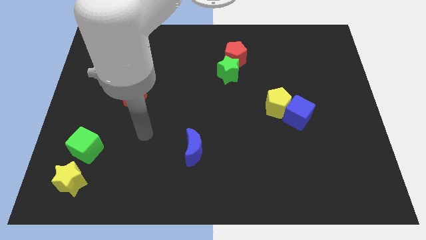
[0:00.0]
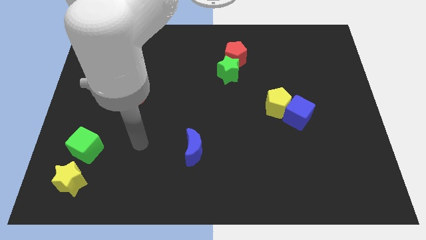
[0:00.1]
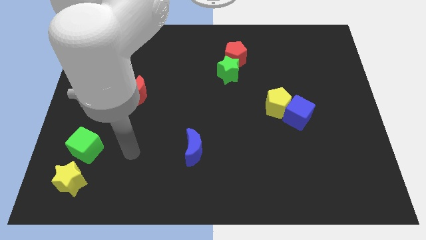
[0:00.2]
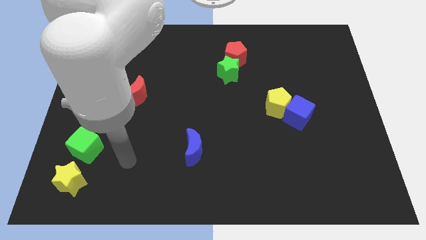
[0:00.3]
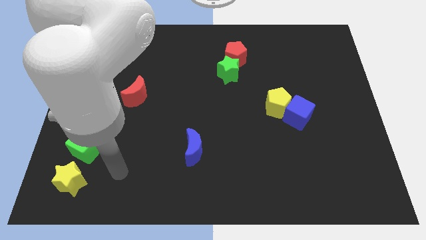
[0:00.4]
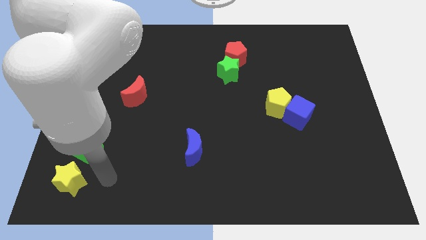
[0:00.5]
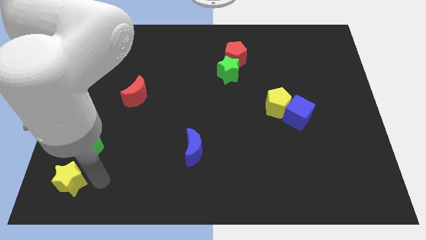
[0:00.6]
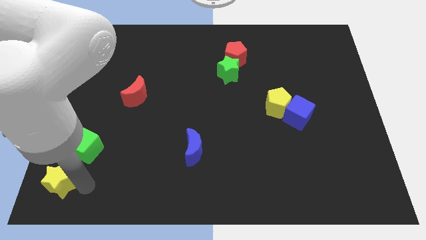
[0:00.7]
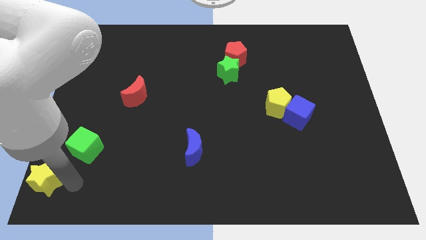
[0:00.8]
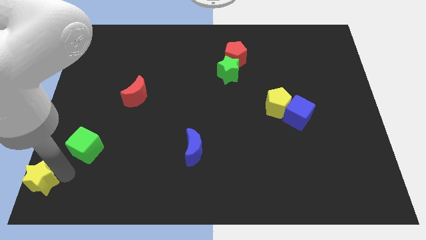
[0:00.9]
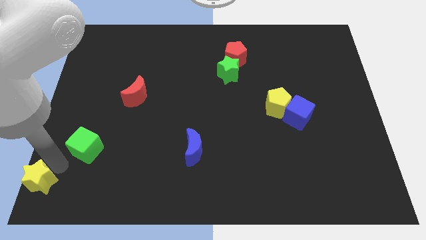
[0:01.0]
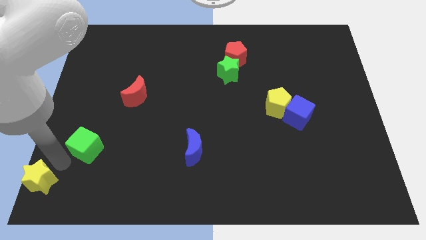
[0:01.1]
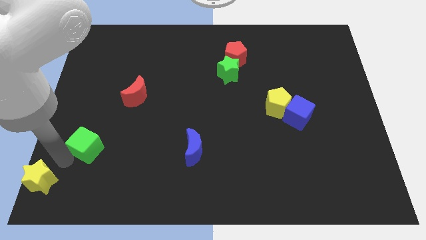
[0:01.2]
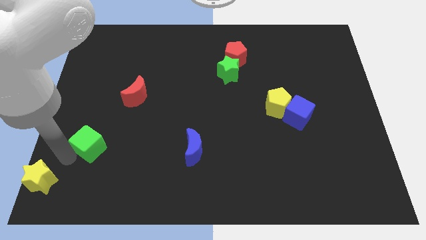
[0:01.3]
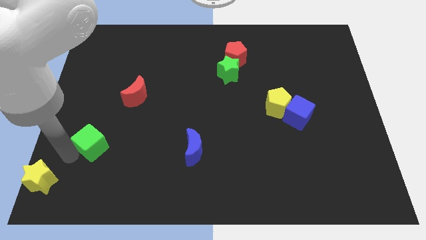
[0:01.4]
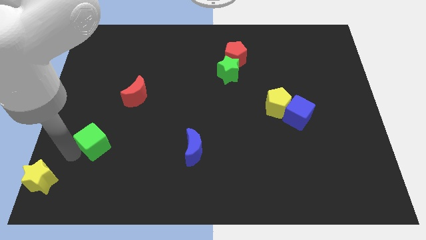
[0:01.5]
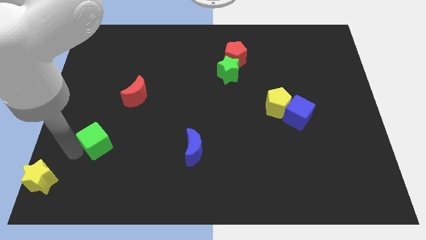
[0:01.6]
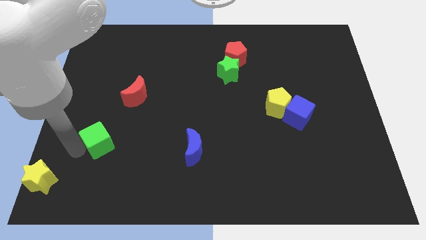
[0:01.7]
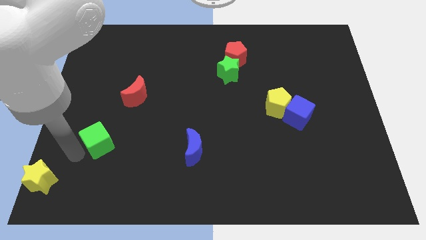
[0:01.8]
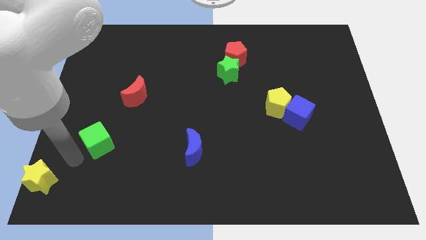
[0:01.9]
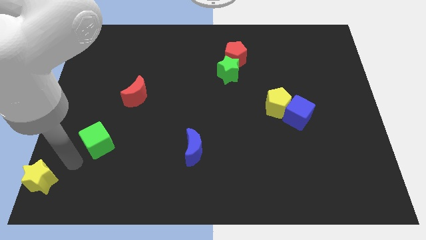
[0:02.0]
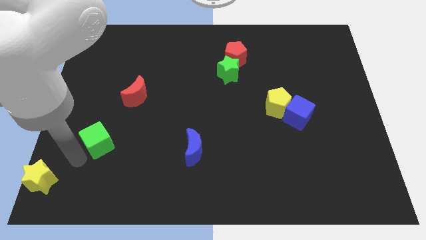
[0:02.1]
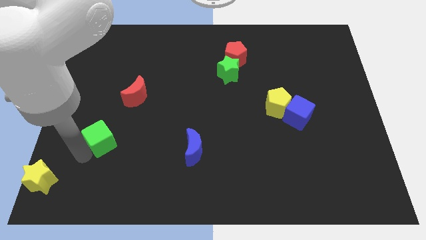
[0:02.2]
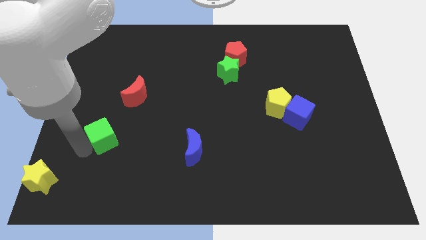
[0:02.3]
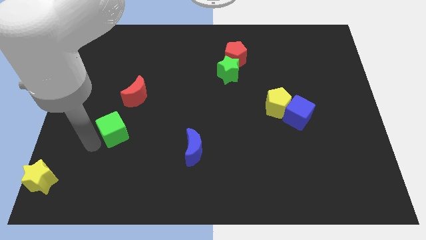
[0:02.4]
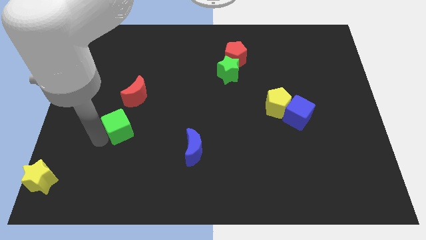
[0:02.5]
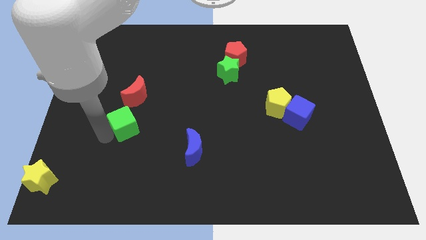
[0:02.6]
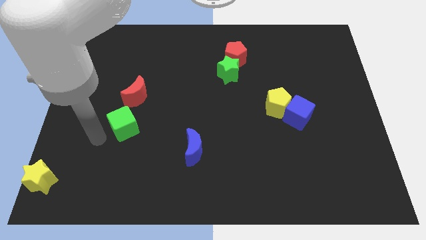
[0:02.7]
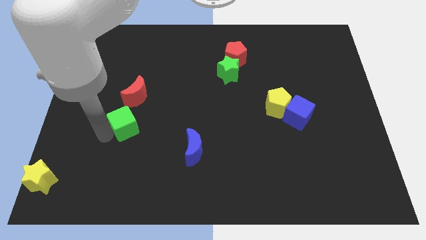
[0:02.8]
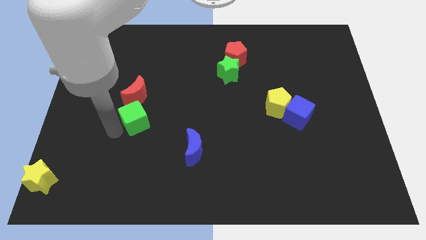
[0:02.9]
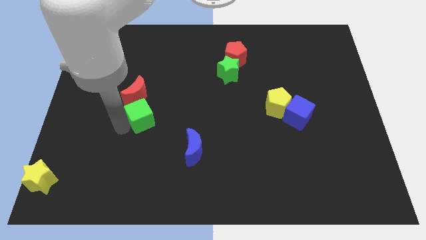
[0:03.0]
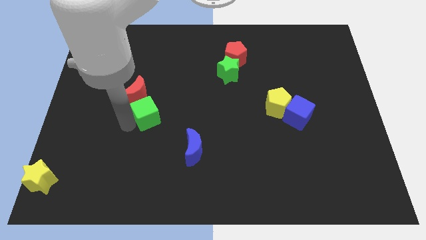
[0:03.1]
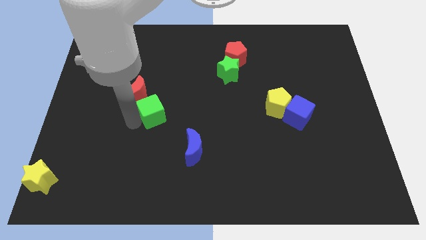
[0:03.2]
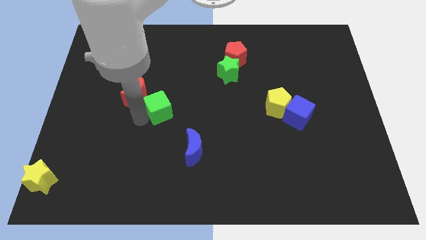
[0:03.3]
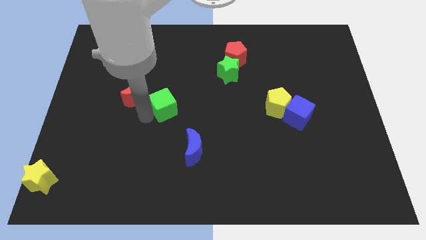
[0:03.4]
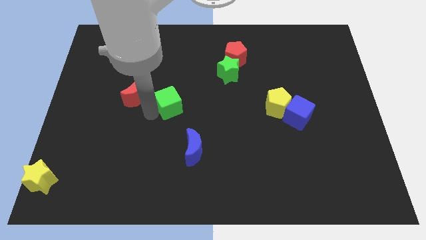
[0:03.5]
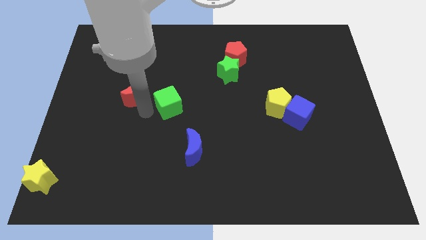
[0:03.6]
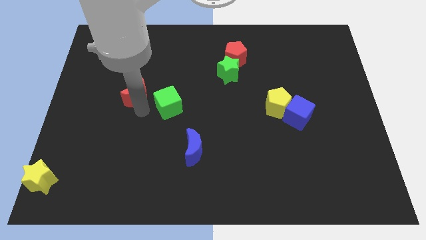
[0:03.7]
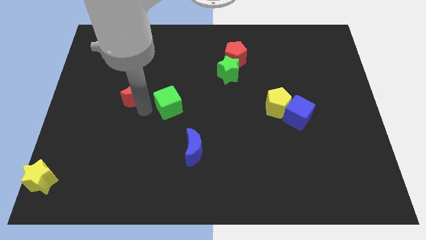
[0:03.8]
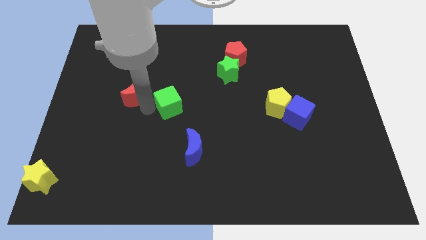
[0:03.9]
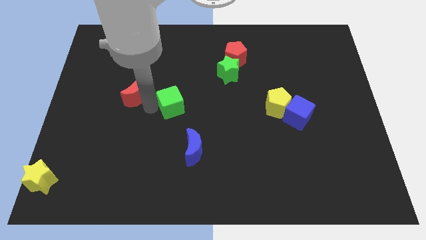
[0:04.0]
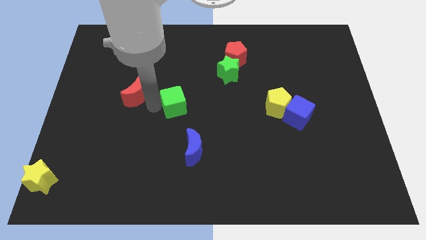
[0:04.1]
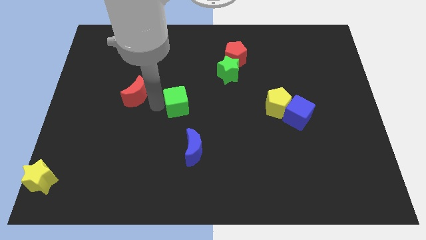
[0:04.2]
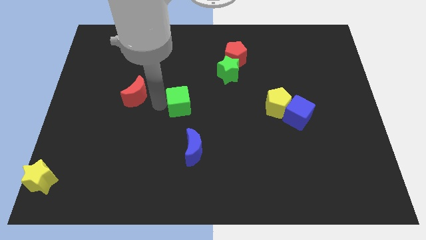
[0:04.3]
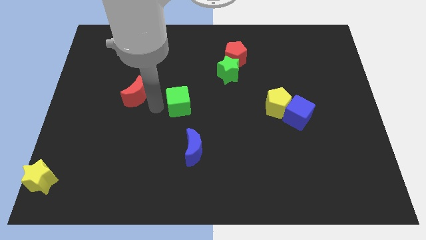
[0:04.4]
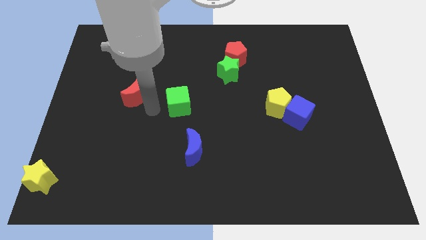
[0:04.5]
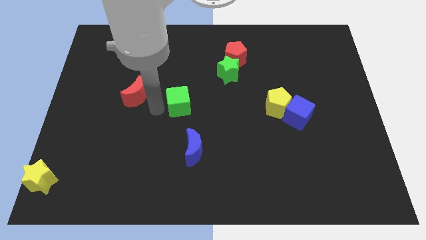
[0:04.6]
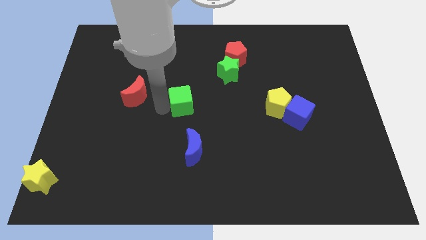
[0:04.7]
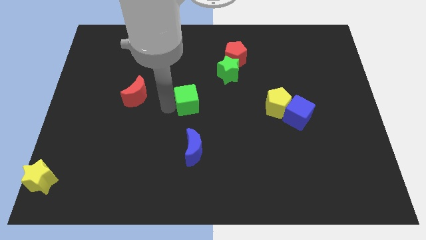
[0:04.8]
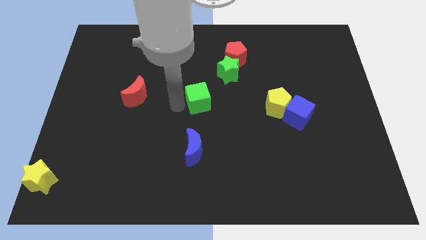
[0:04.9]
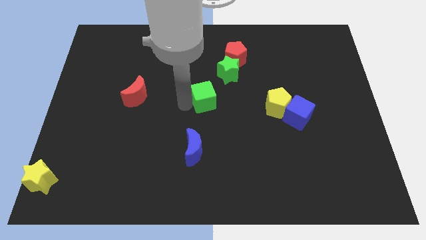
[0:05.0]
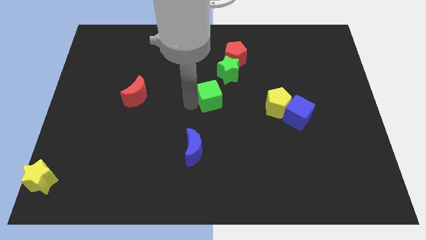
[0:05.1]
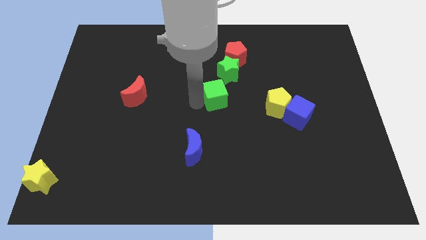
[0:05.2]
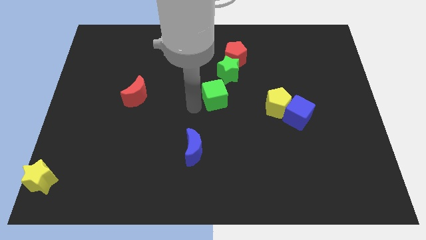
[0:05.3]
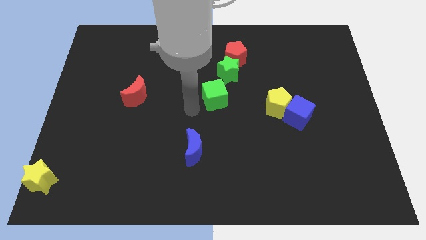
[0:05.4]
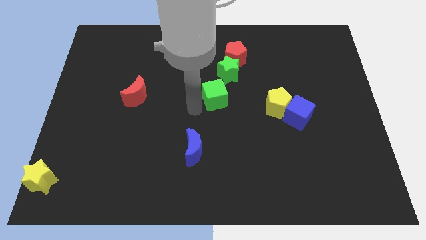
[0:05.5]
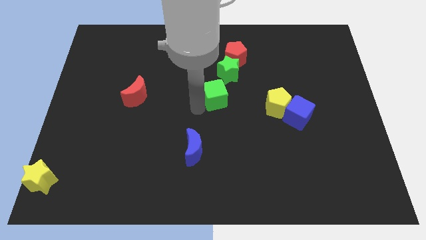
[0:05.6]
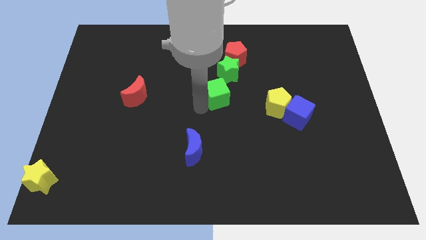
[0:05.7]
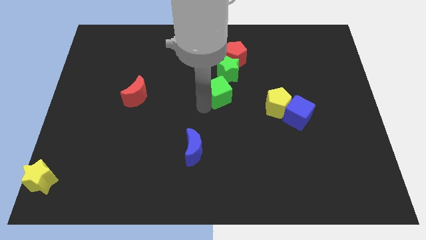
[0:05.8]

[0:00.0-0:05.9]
slide the green cube to the bottom of the red pentagon

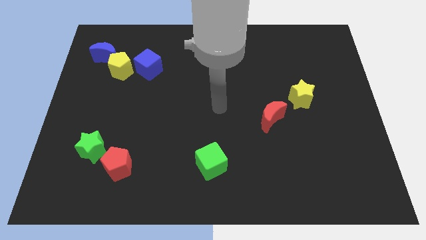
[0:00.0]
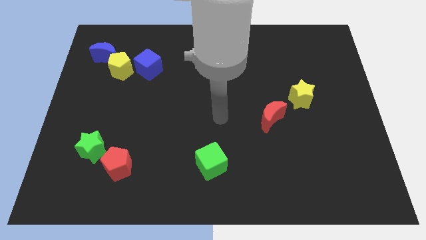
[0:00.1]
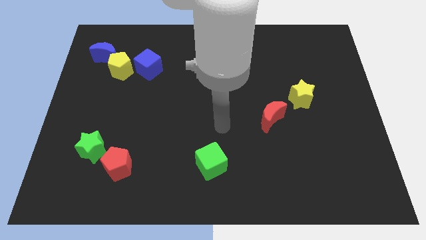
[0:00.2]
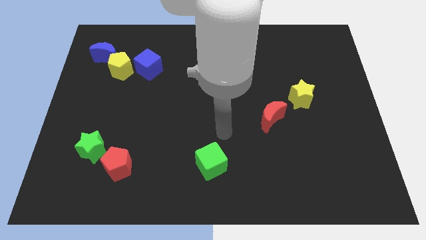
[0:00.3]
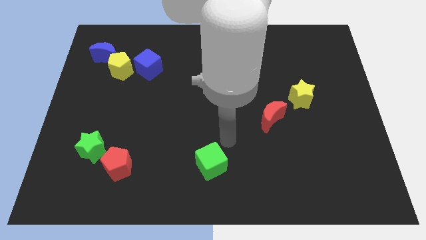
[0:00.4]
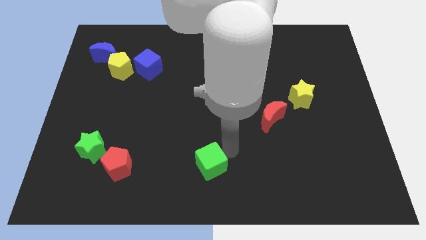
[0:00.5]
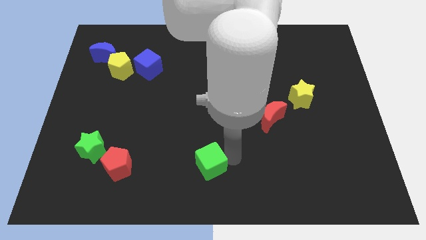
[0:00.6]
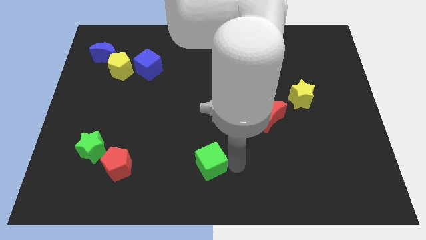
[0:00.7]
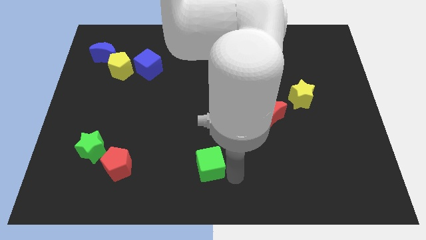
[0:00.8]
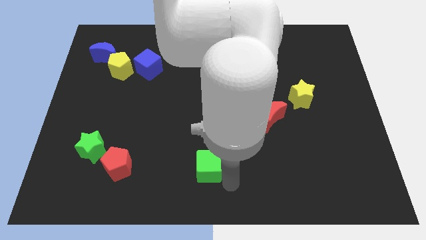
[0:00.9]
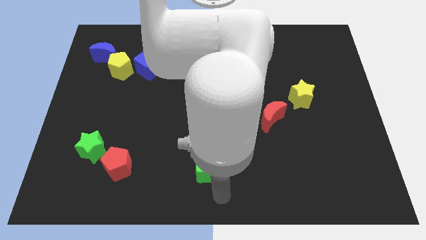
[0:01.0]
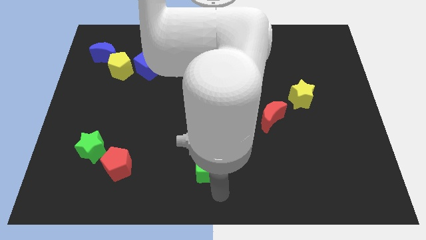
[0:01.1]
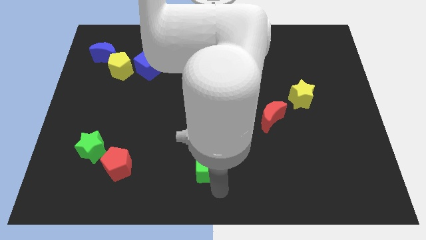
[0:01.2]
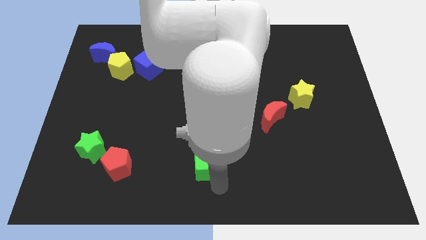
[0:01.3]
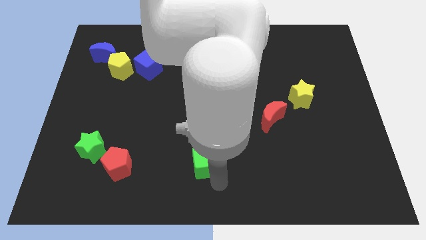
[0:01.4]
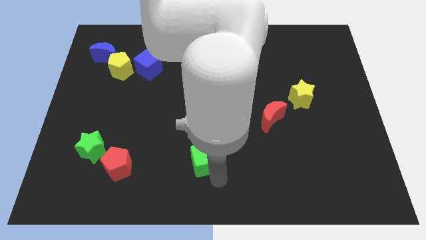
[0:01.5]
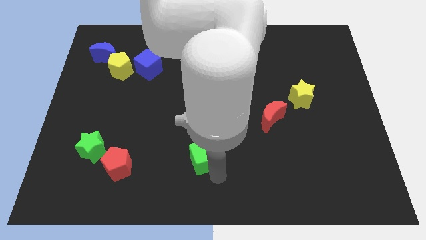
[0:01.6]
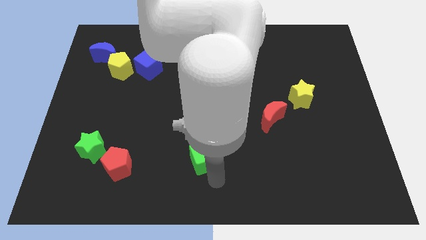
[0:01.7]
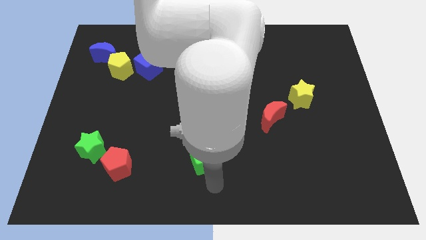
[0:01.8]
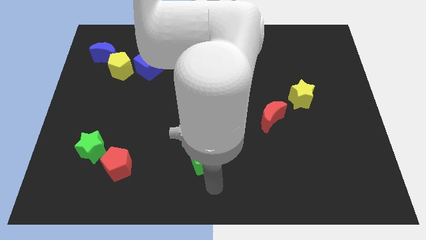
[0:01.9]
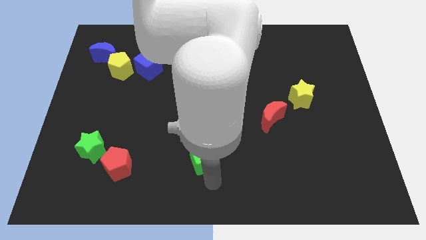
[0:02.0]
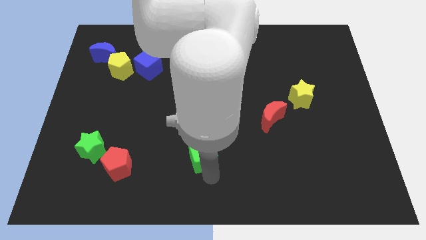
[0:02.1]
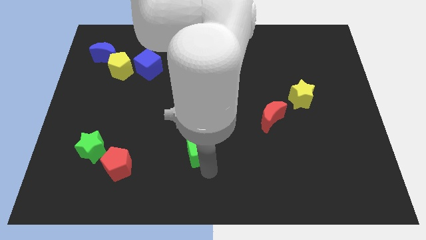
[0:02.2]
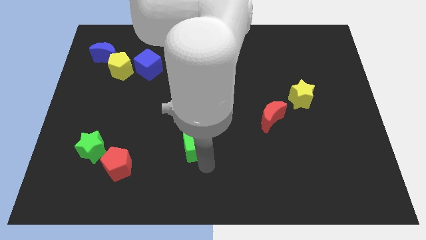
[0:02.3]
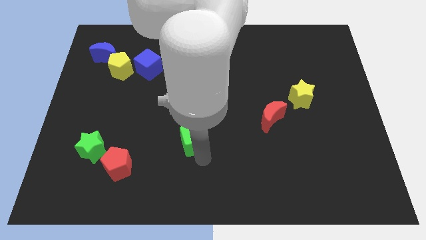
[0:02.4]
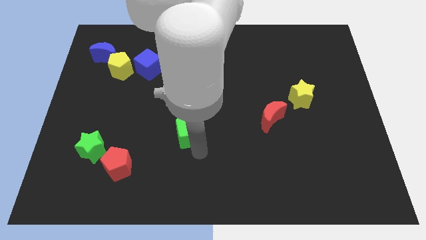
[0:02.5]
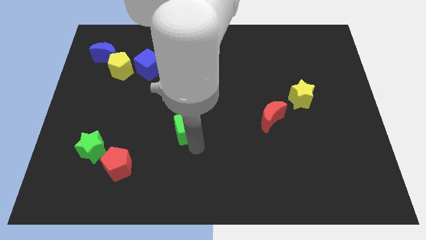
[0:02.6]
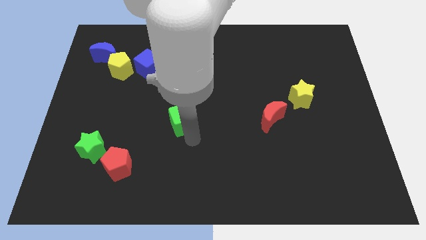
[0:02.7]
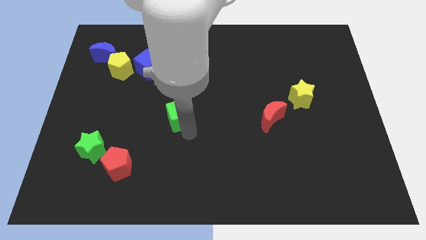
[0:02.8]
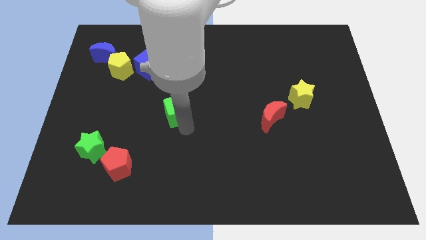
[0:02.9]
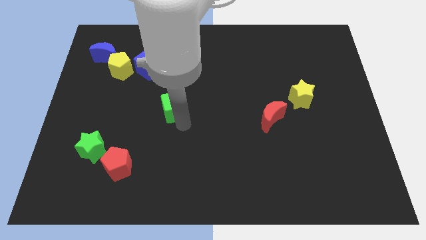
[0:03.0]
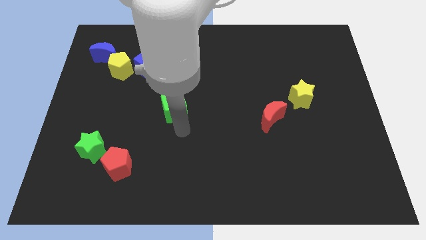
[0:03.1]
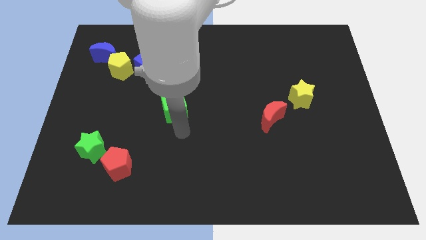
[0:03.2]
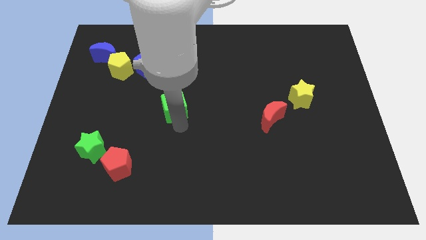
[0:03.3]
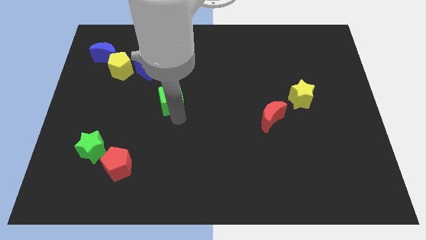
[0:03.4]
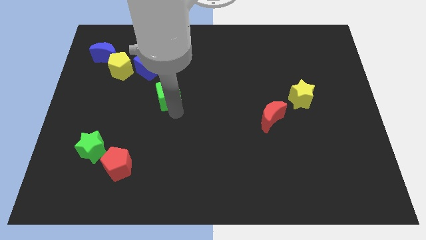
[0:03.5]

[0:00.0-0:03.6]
push the green cube diagonally down and to the right of the blue cube
